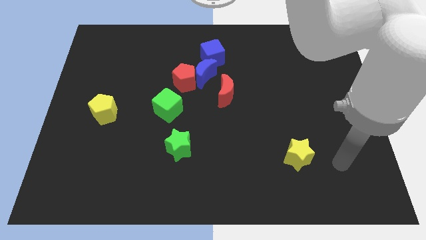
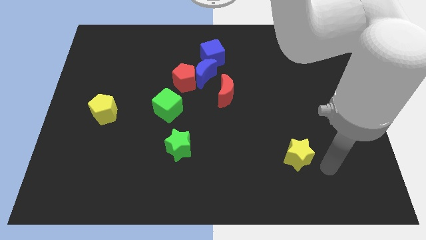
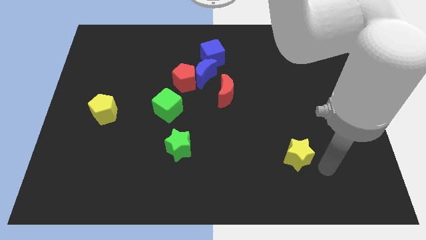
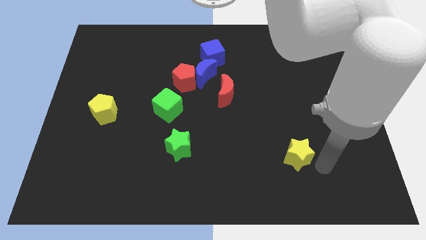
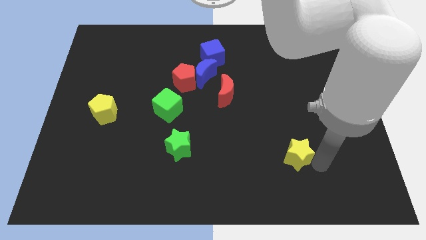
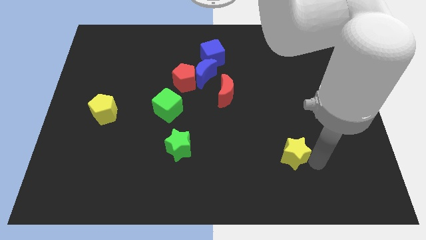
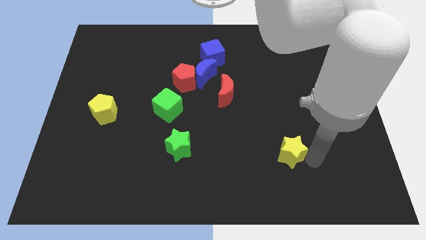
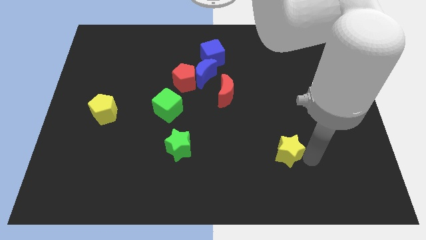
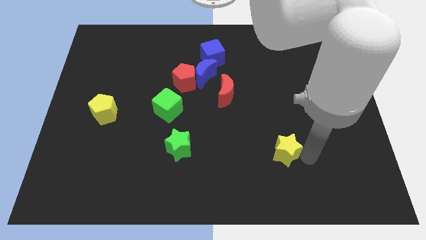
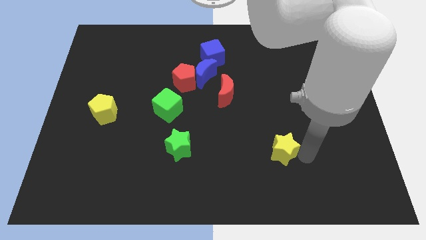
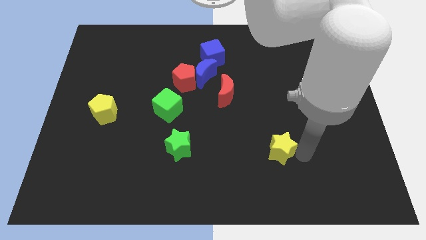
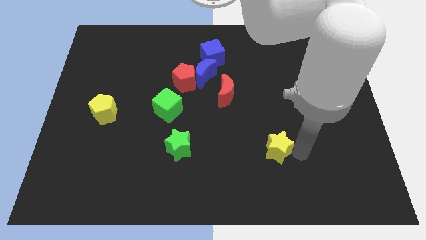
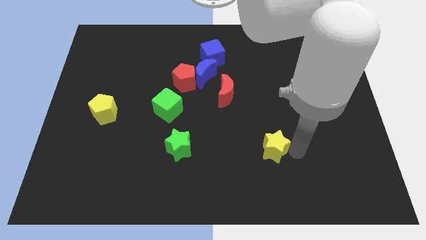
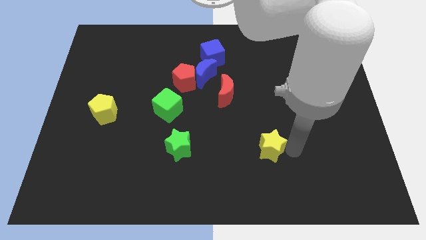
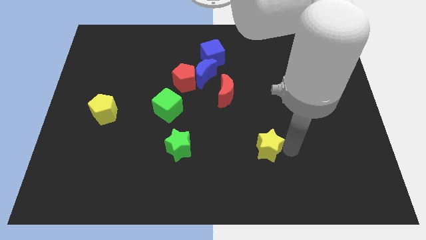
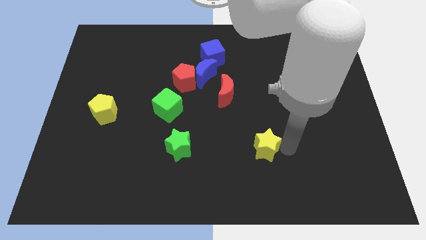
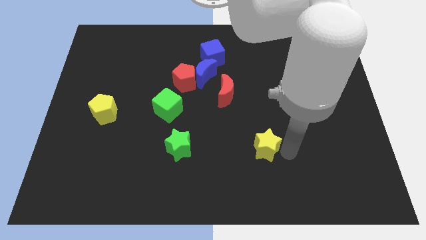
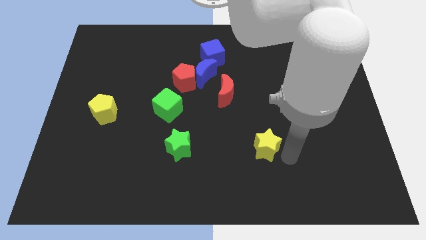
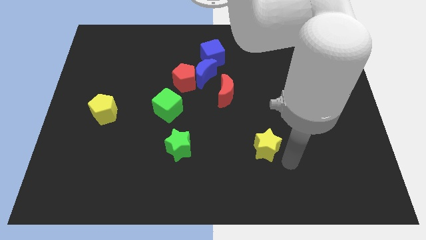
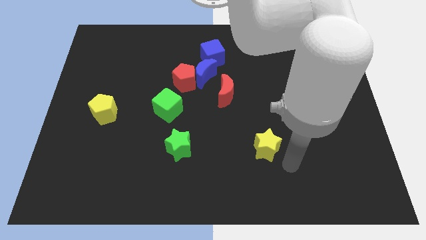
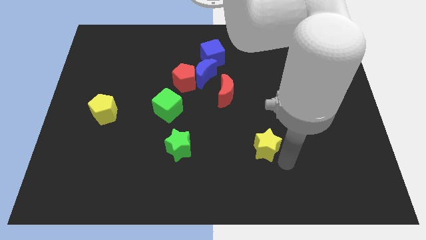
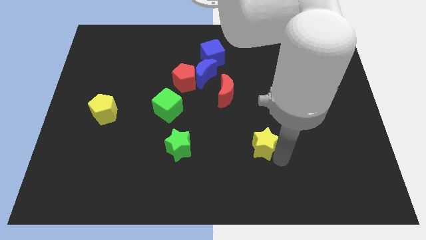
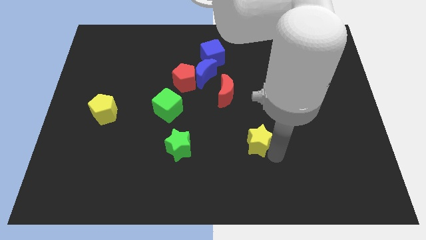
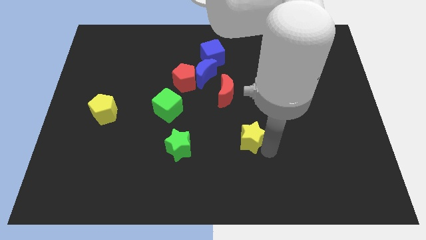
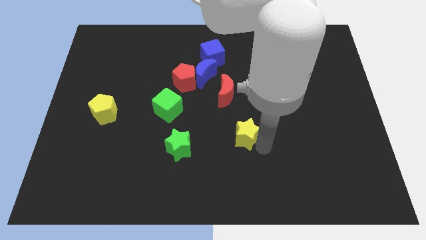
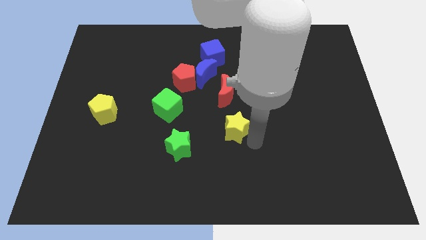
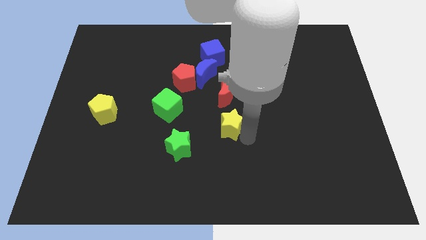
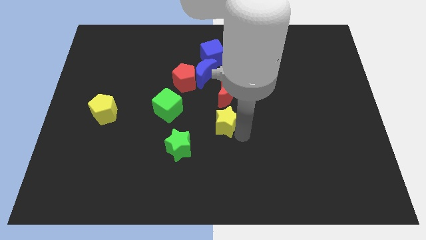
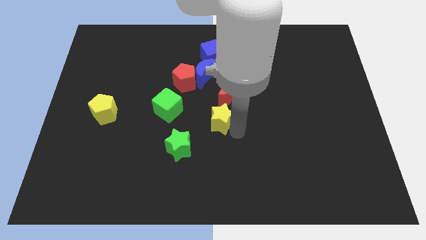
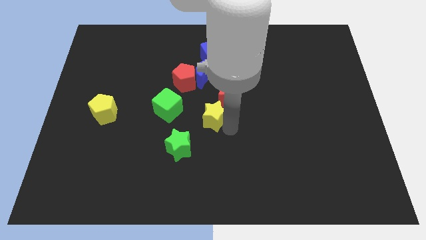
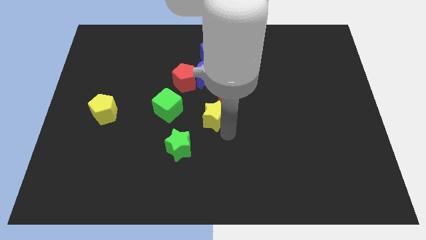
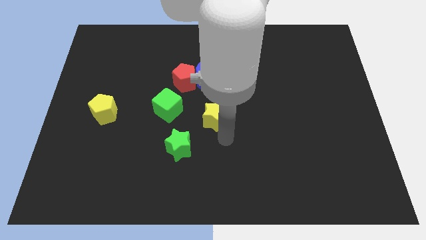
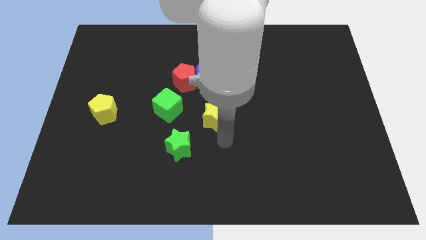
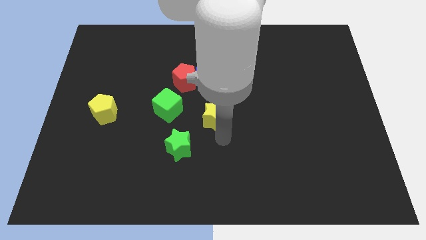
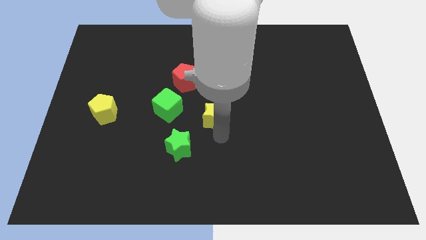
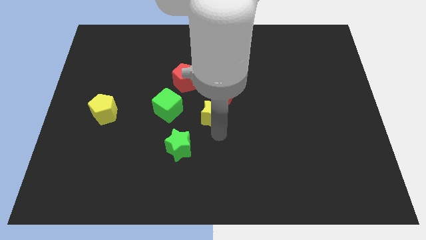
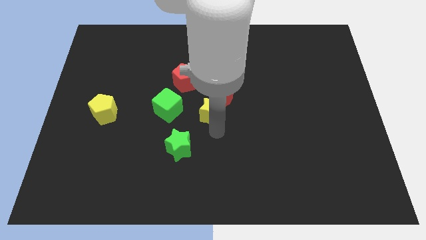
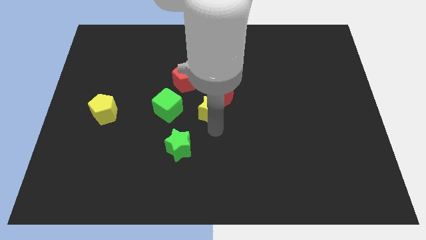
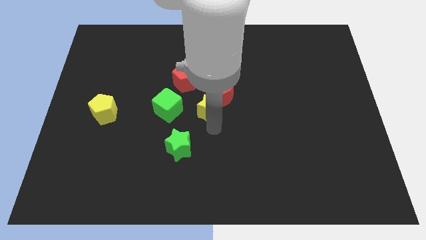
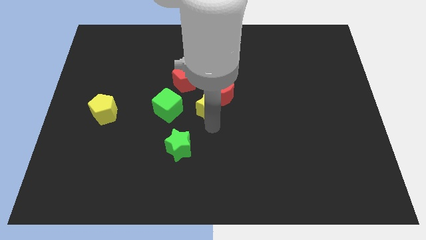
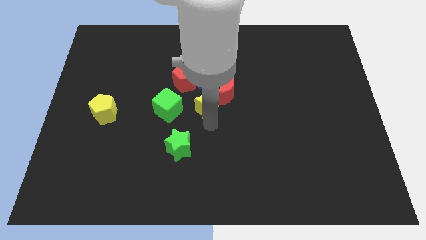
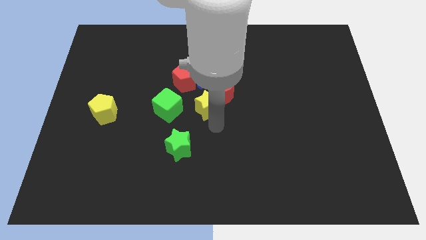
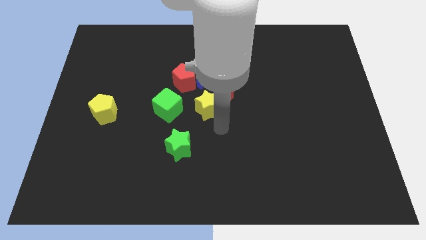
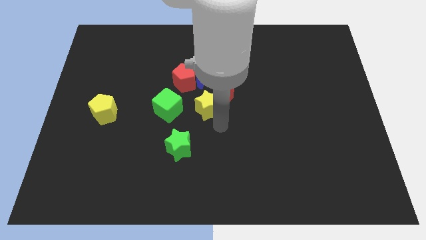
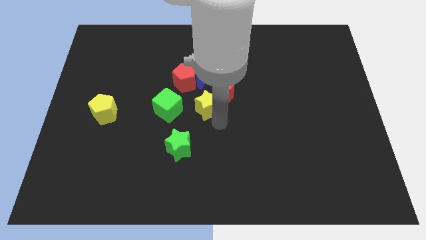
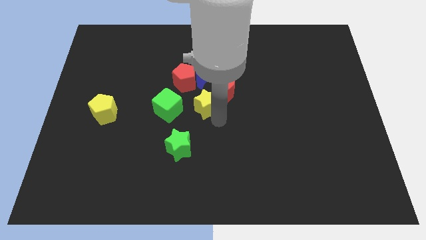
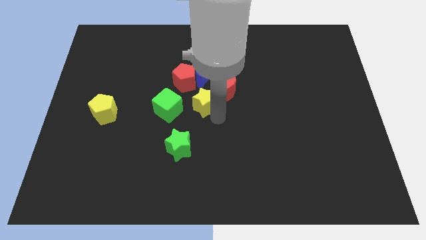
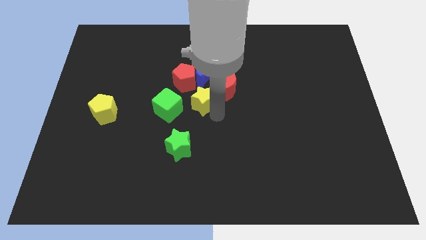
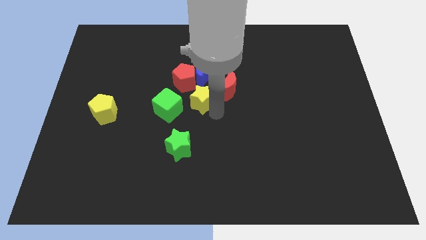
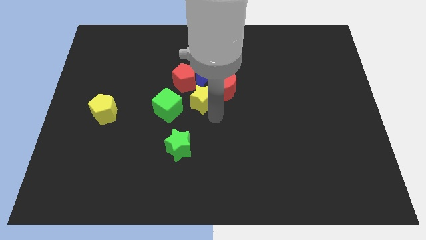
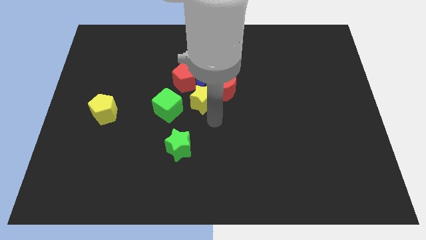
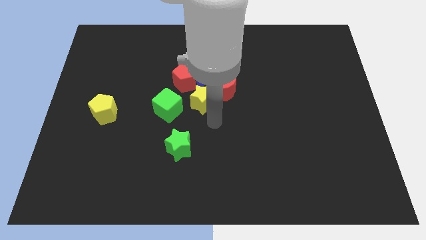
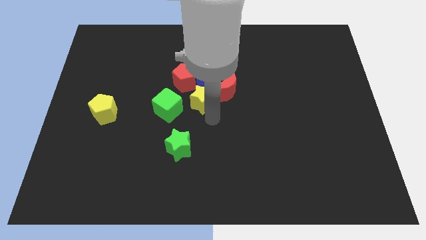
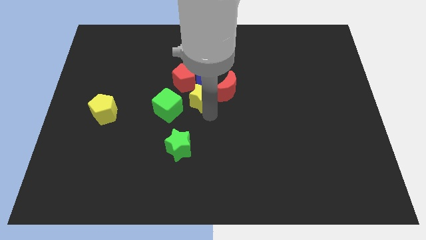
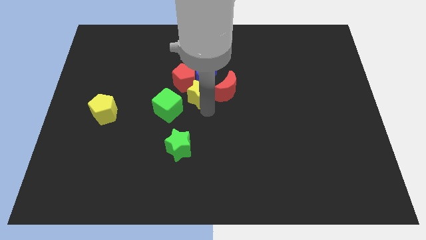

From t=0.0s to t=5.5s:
put the yellow star to the red pentagon
